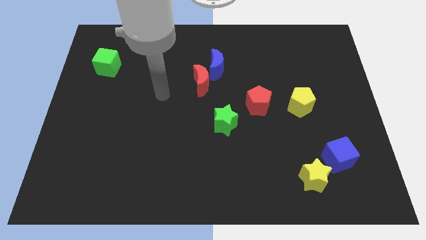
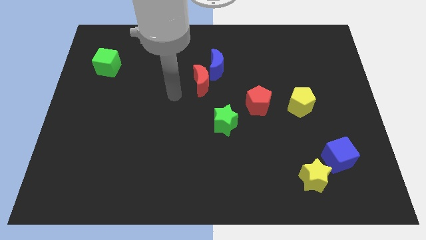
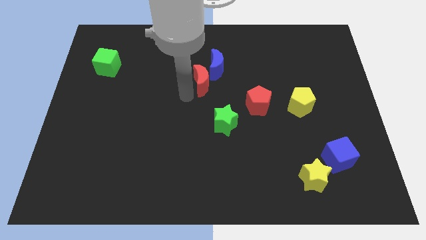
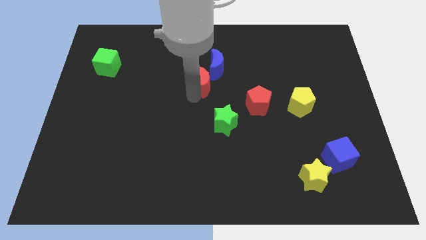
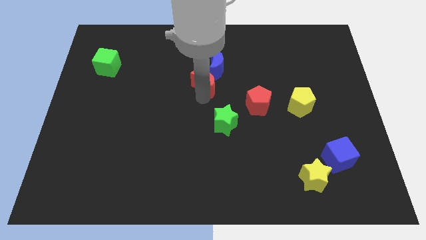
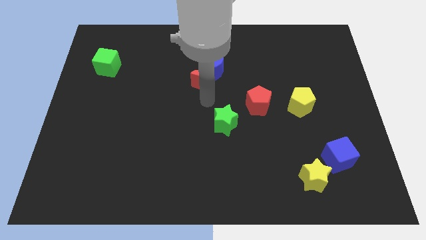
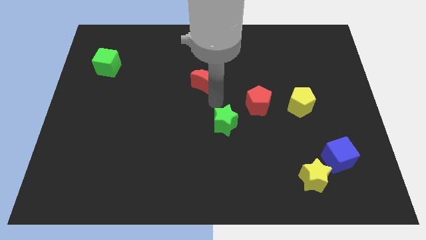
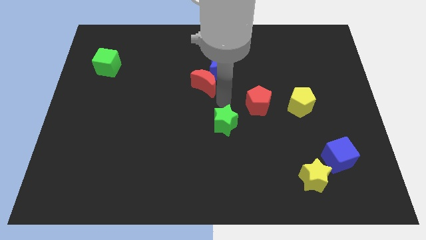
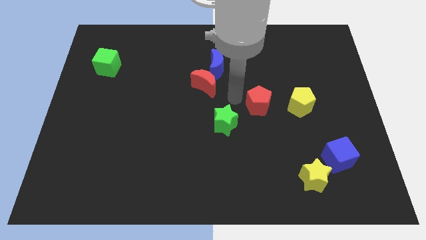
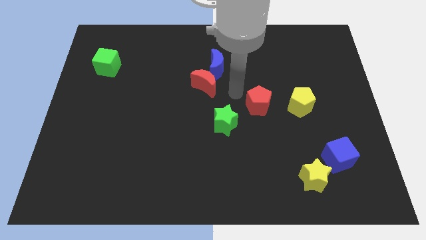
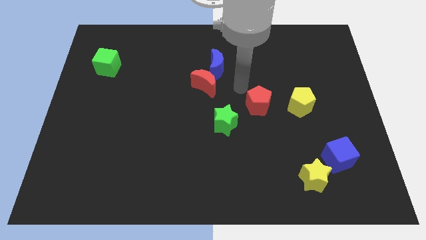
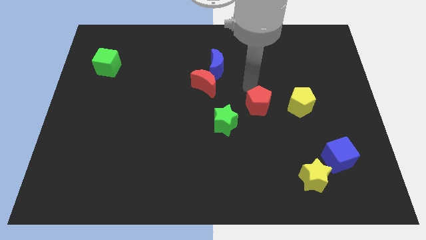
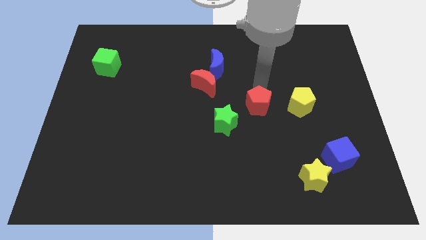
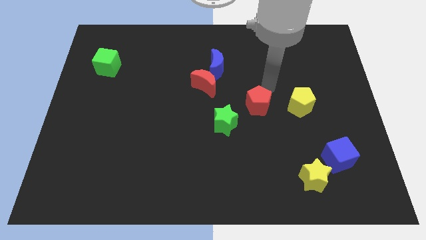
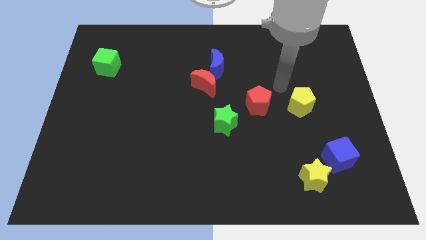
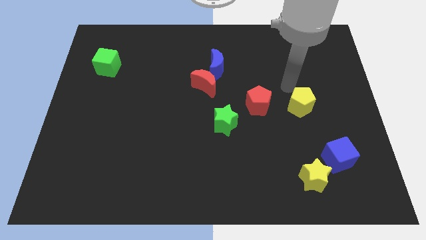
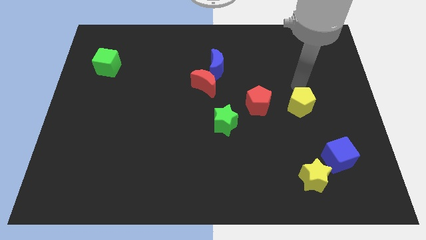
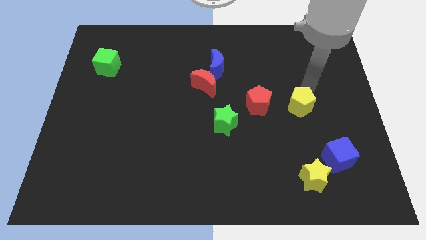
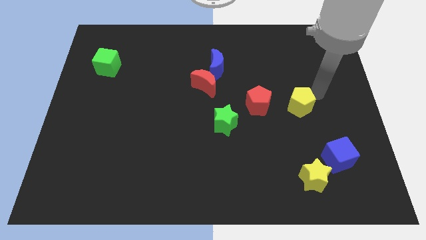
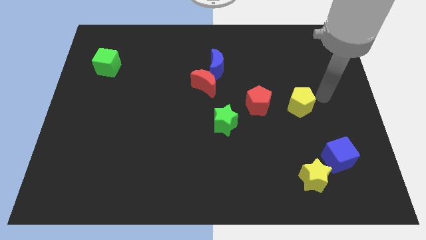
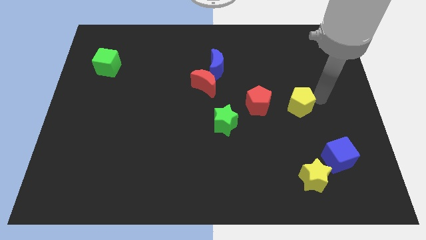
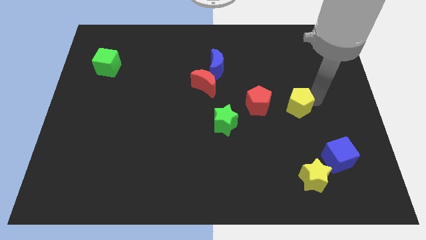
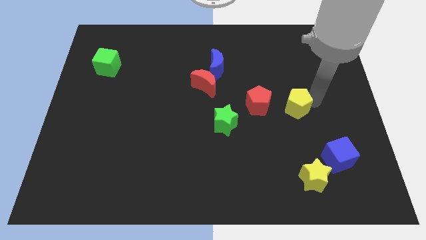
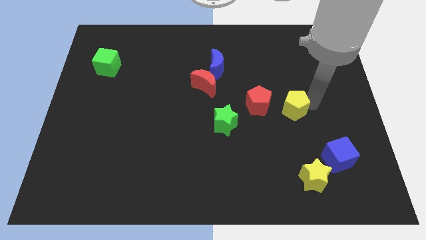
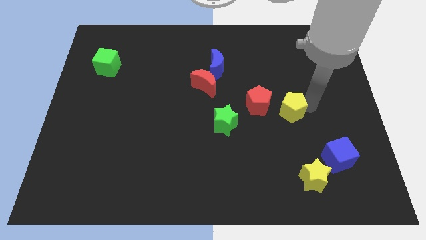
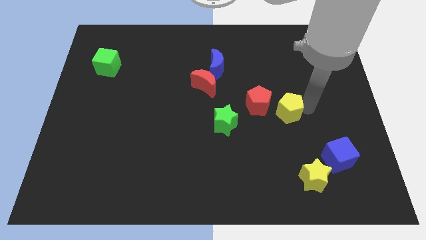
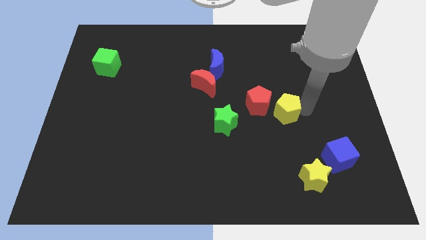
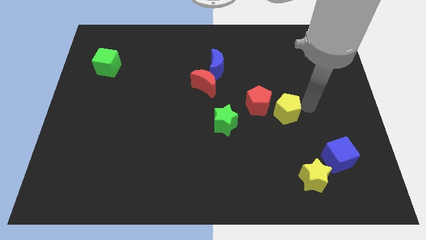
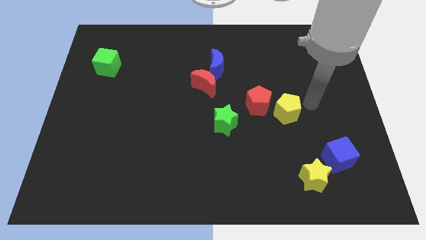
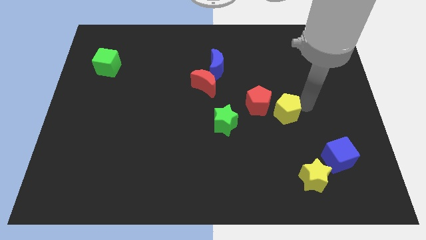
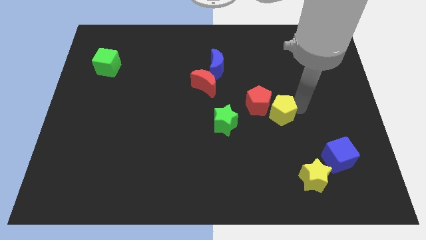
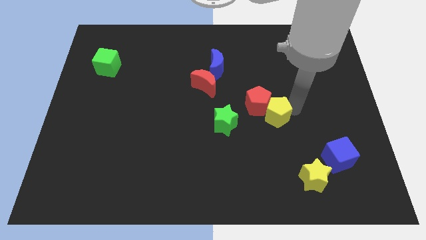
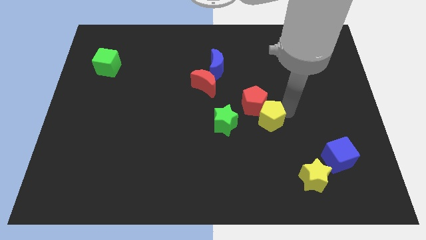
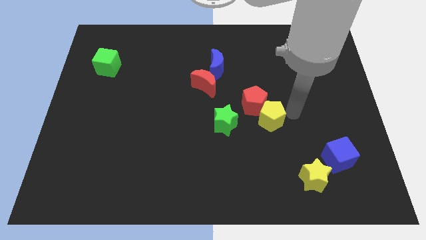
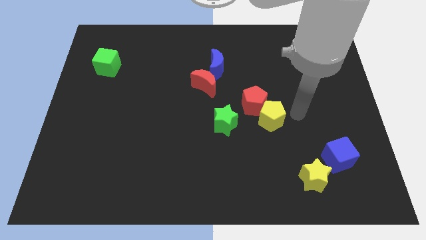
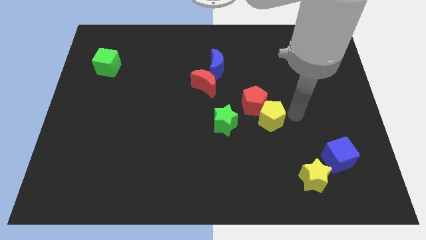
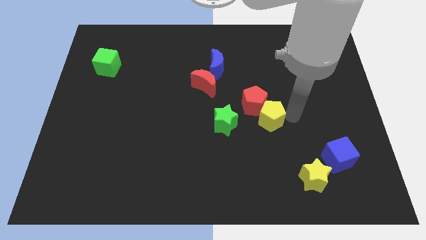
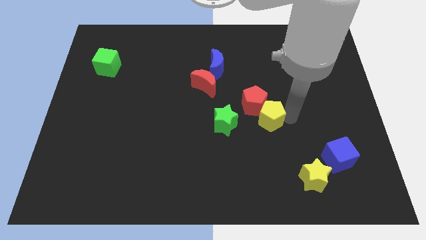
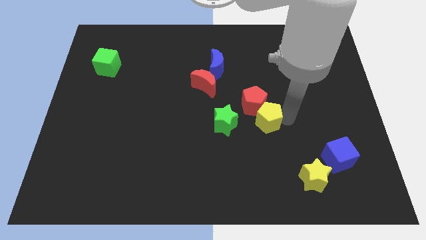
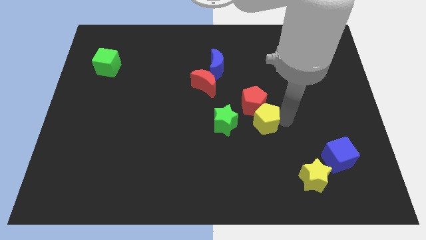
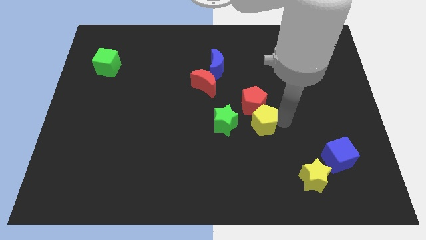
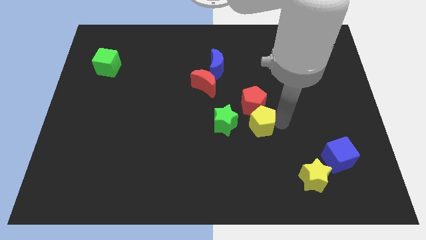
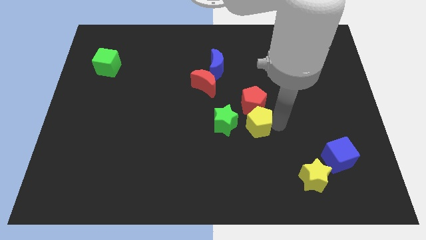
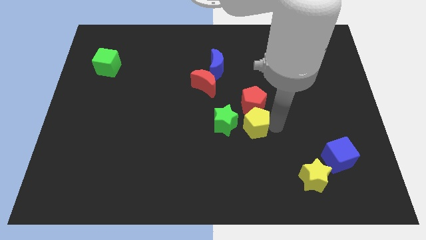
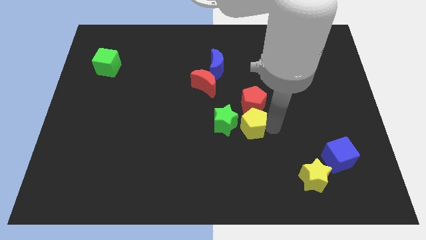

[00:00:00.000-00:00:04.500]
put the yellow pentagon close to the green star

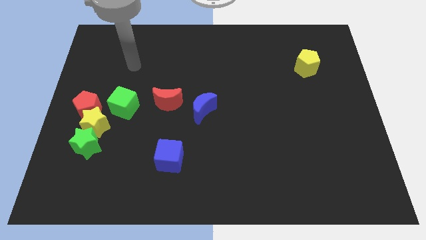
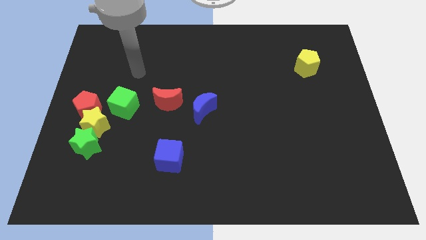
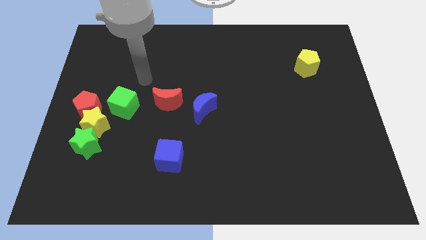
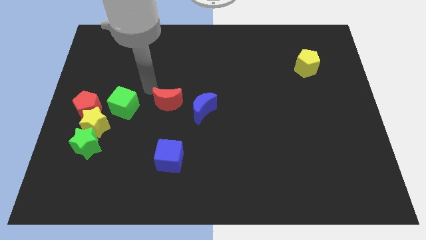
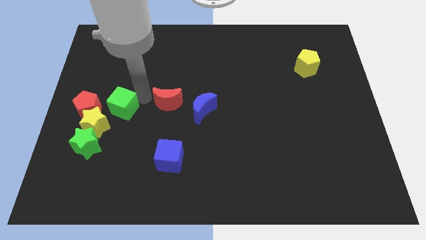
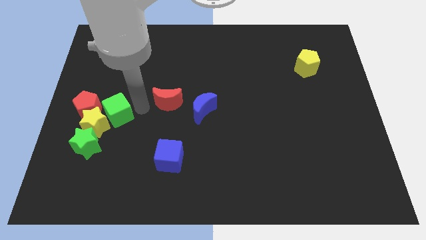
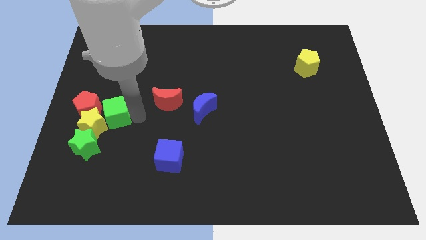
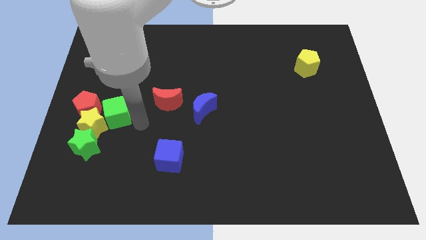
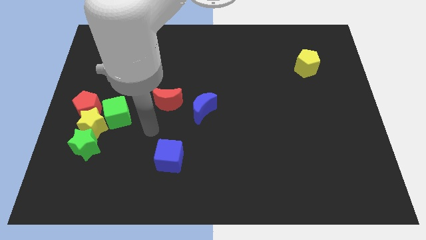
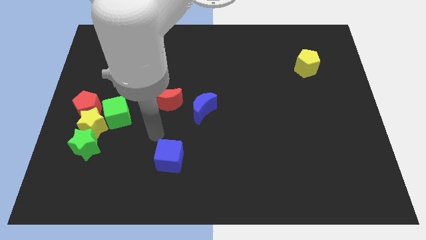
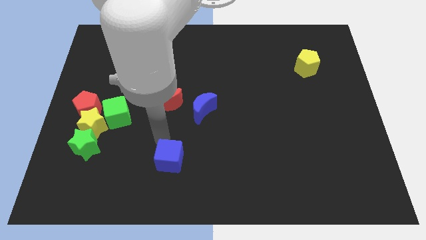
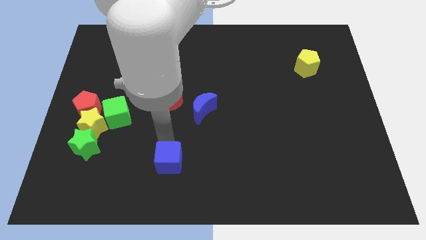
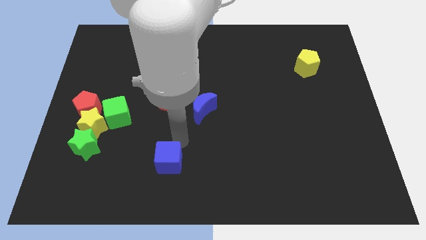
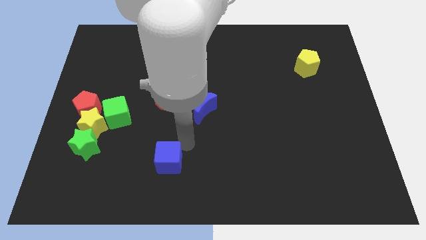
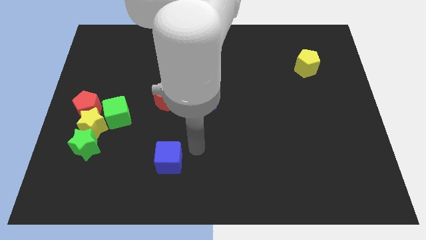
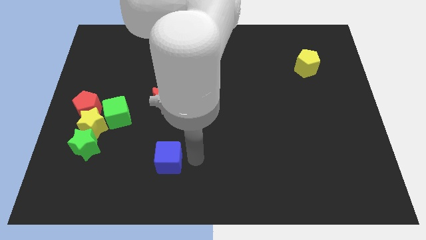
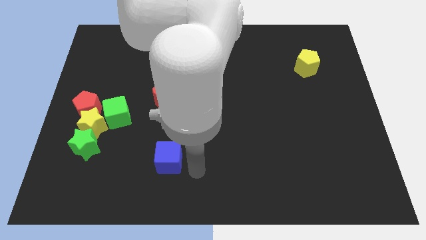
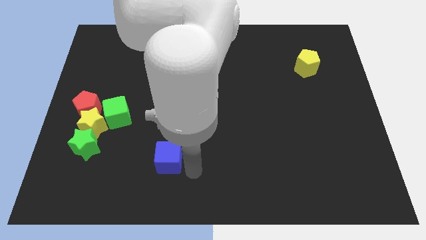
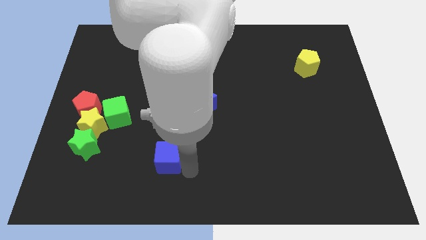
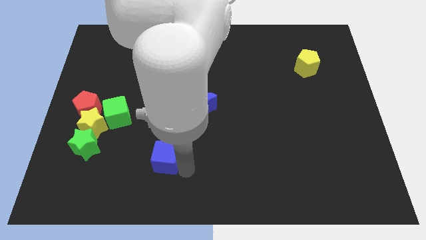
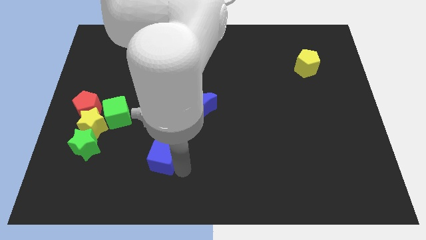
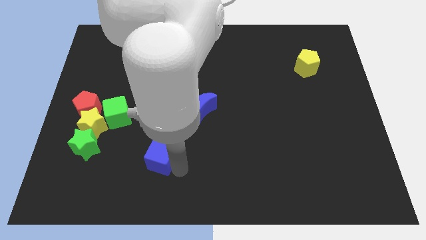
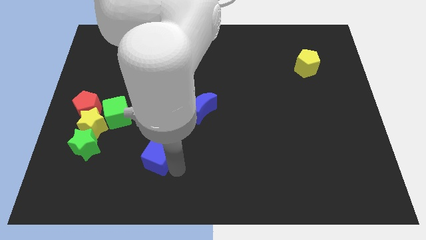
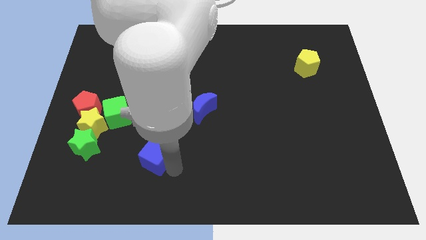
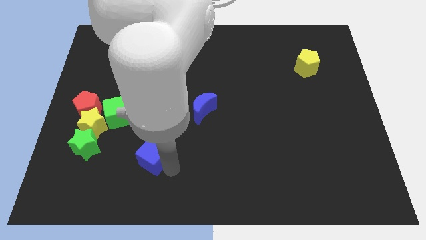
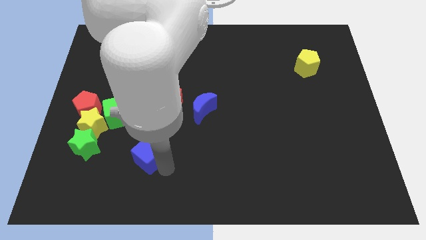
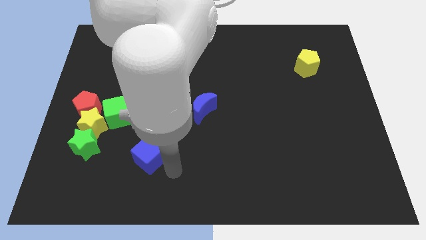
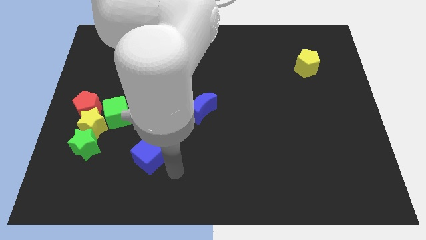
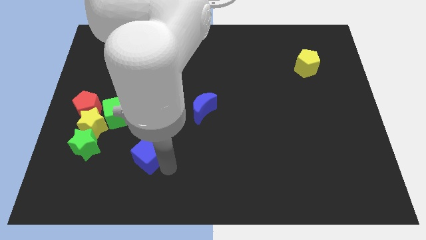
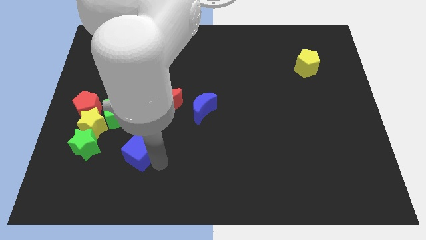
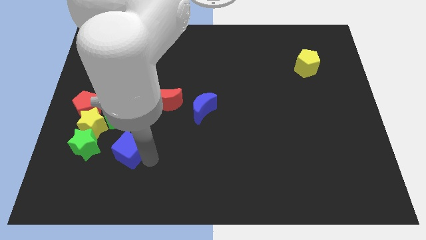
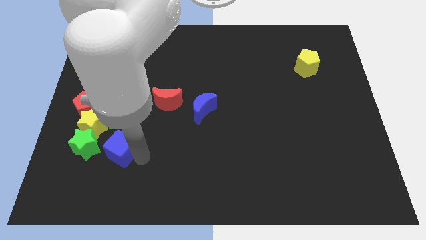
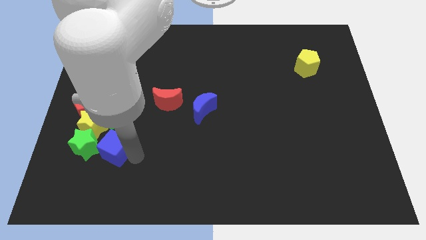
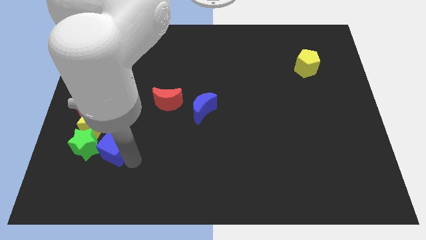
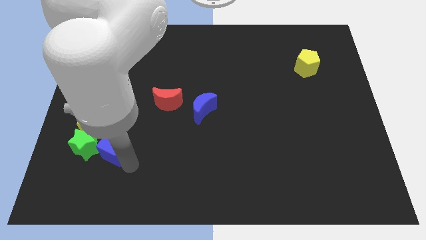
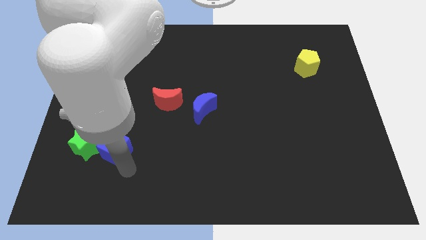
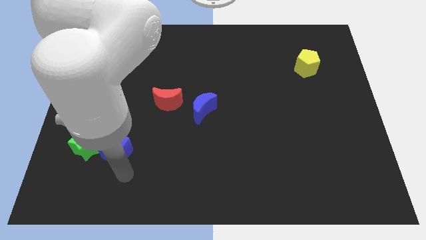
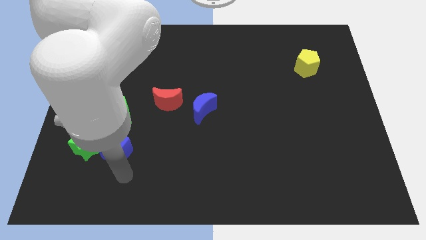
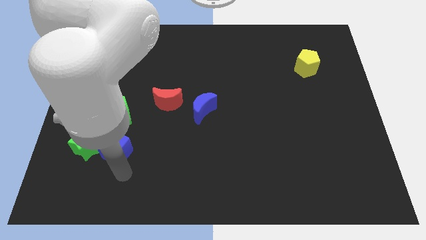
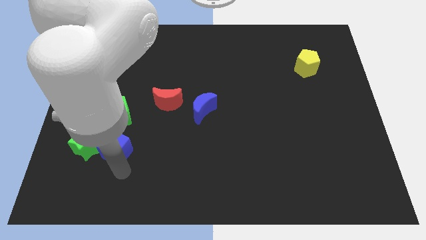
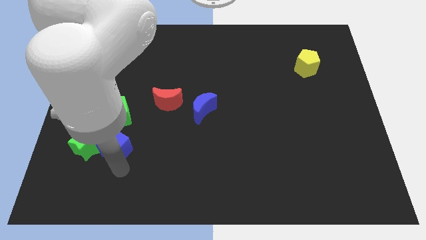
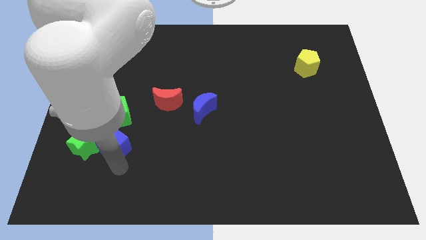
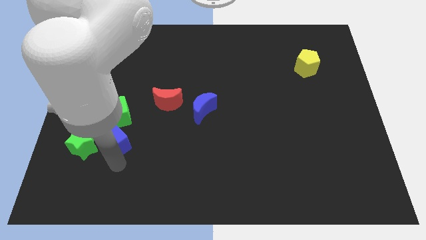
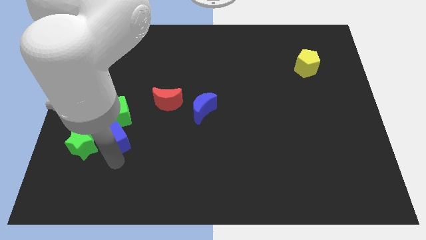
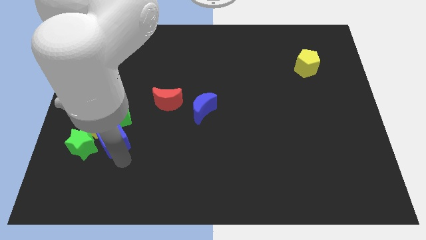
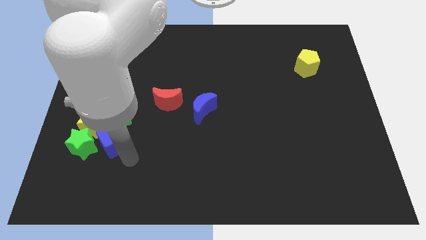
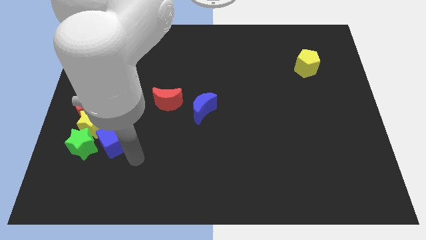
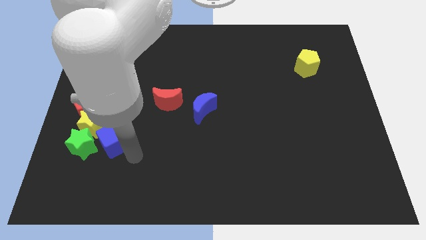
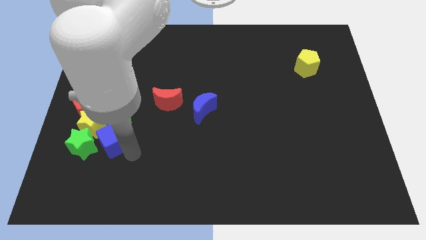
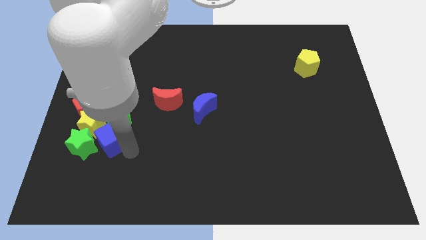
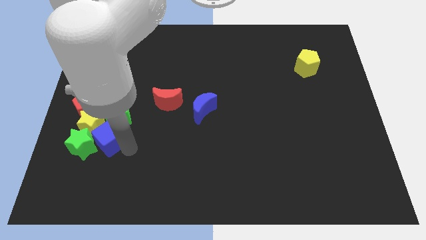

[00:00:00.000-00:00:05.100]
move the blue cube close to the yellow star
